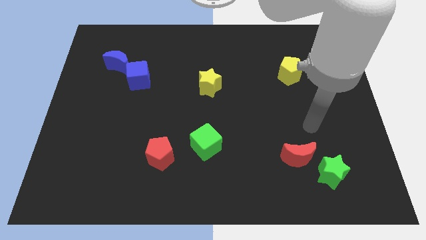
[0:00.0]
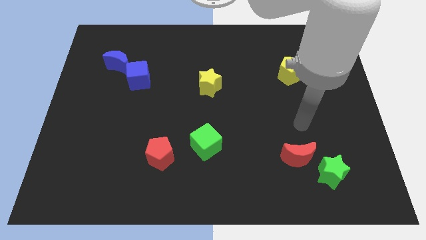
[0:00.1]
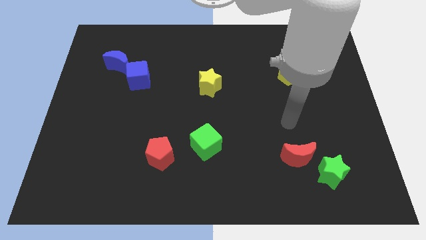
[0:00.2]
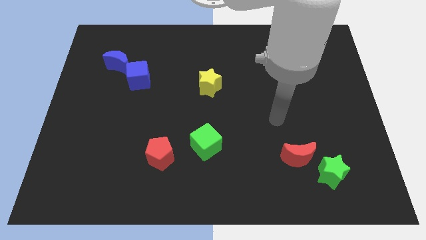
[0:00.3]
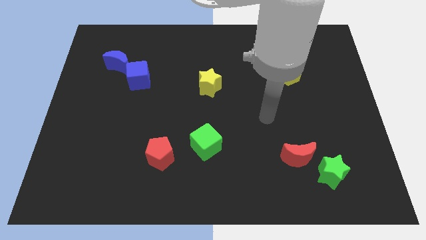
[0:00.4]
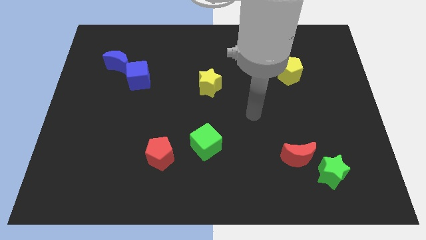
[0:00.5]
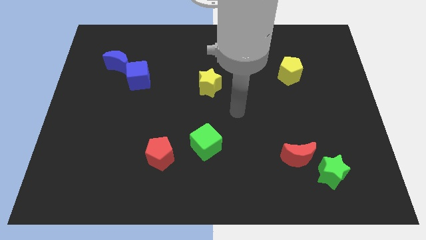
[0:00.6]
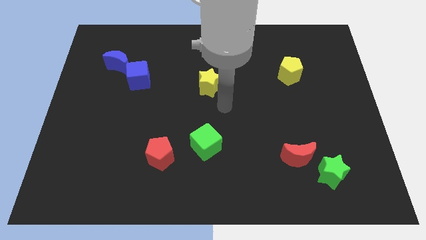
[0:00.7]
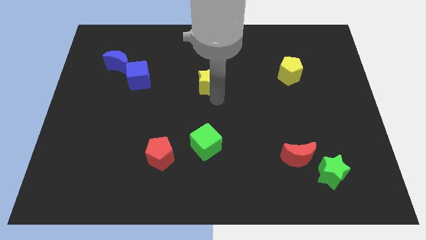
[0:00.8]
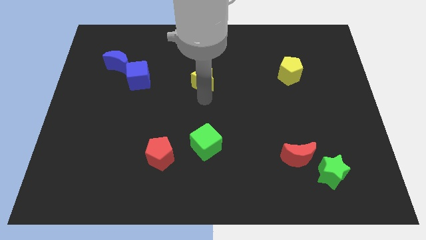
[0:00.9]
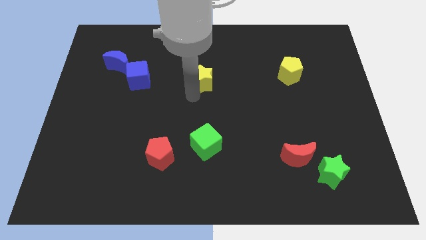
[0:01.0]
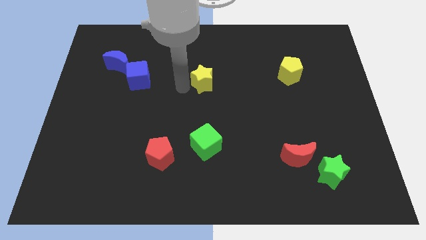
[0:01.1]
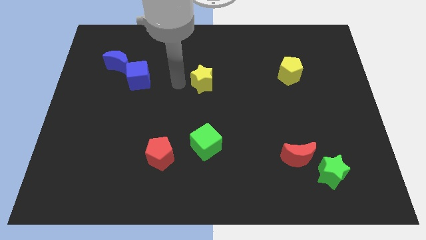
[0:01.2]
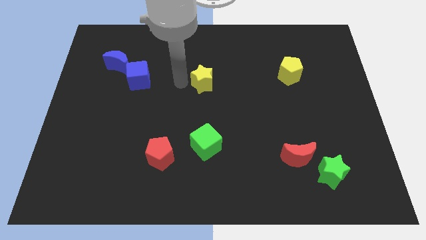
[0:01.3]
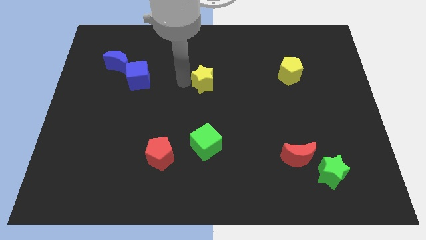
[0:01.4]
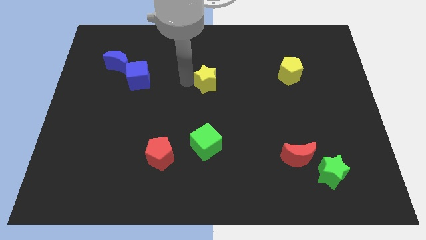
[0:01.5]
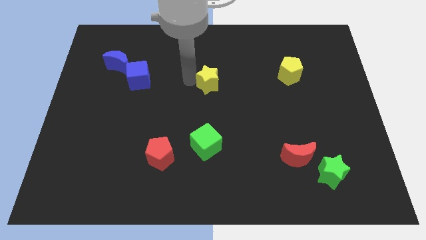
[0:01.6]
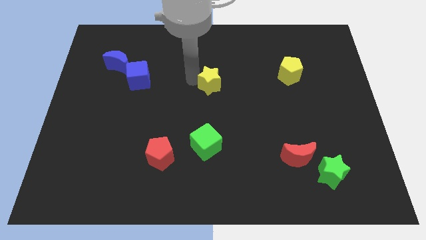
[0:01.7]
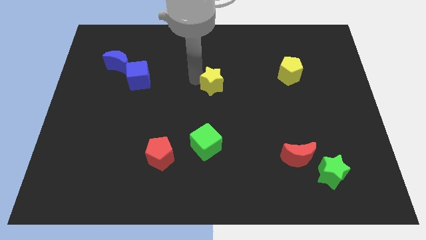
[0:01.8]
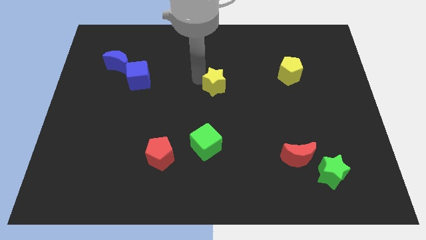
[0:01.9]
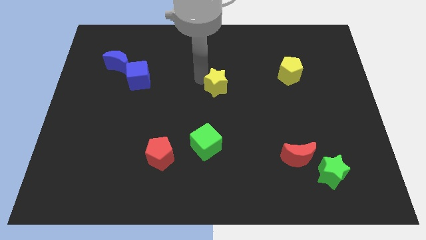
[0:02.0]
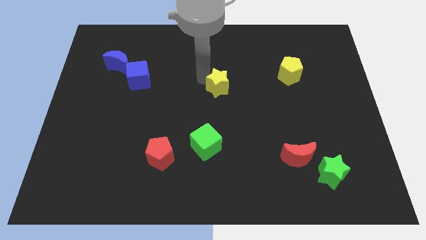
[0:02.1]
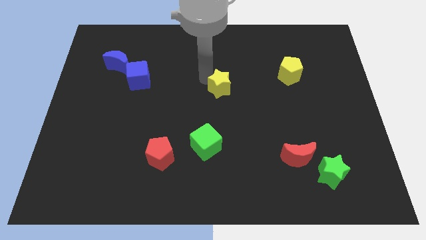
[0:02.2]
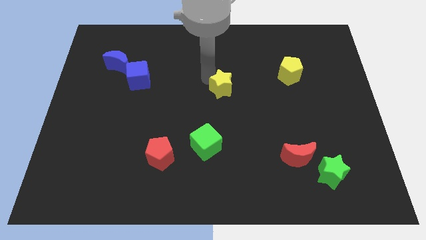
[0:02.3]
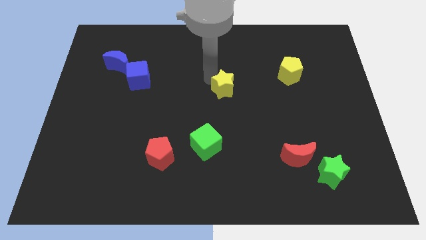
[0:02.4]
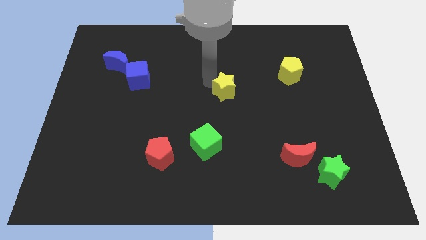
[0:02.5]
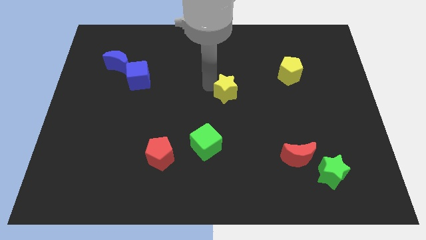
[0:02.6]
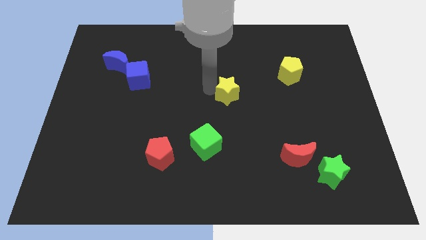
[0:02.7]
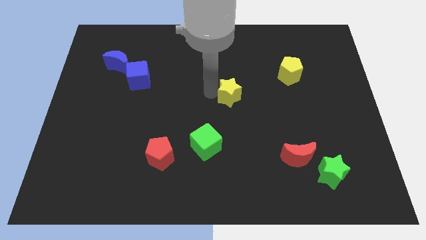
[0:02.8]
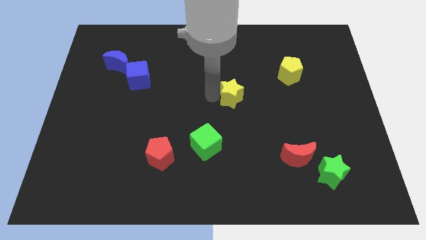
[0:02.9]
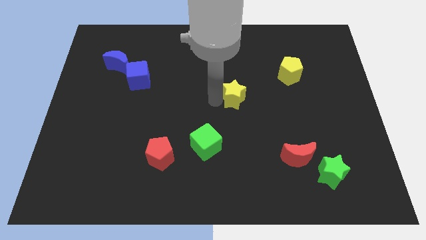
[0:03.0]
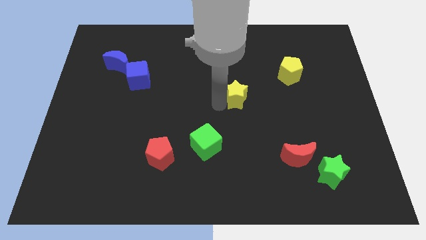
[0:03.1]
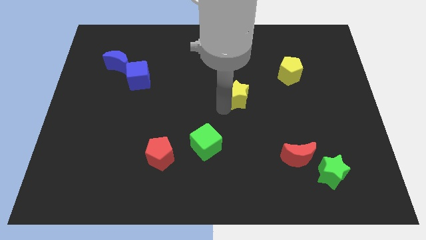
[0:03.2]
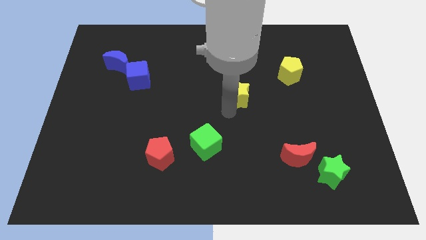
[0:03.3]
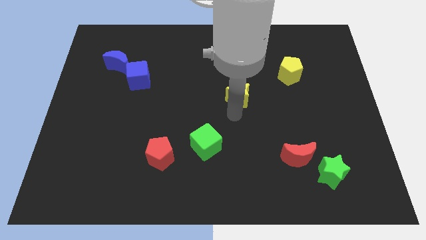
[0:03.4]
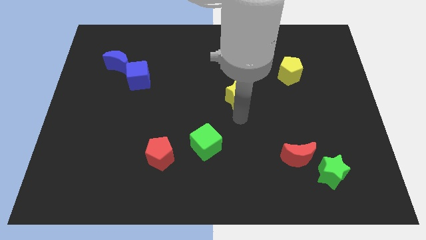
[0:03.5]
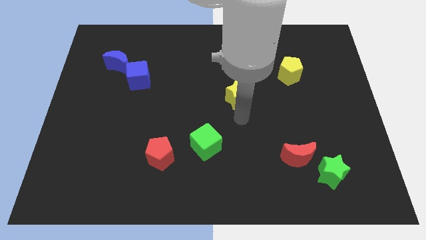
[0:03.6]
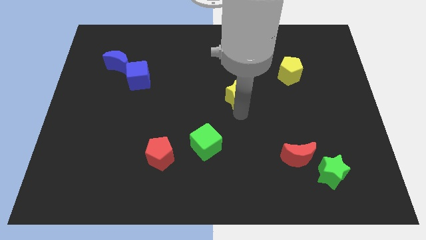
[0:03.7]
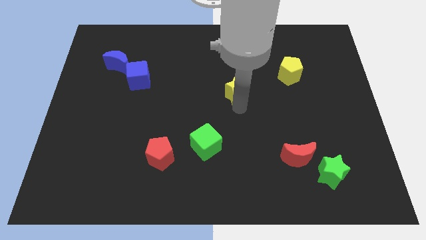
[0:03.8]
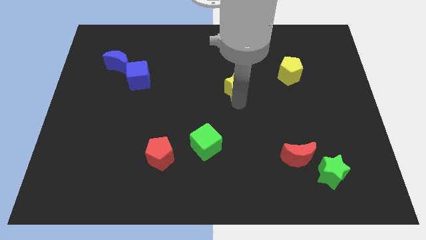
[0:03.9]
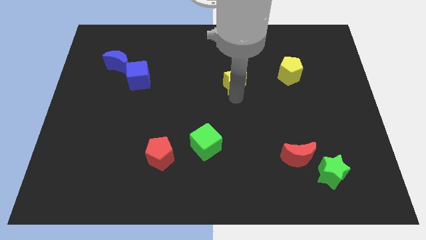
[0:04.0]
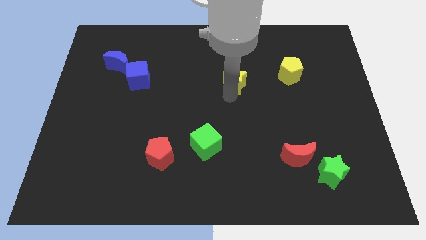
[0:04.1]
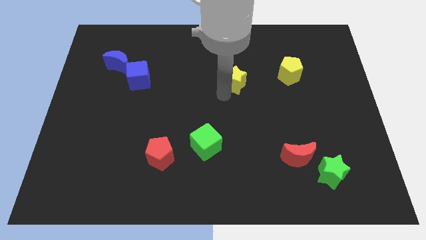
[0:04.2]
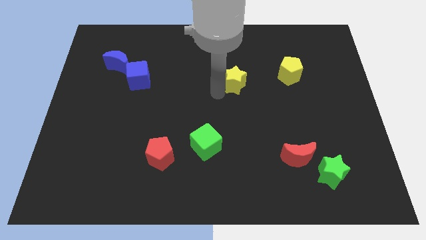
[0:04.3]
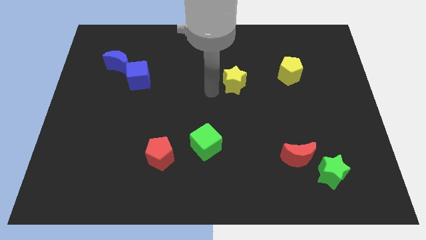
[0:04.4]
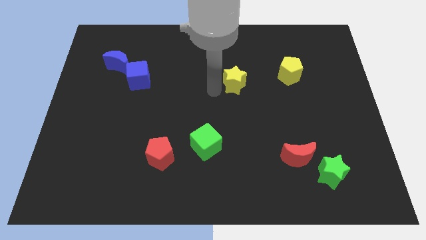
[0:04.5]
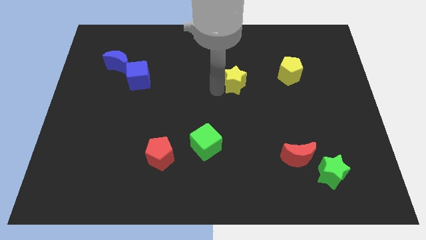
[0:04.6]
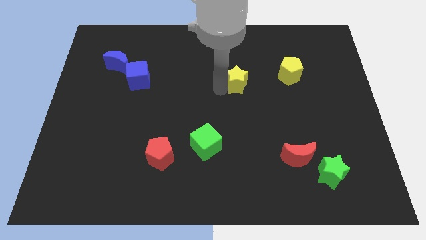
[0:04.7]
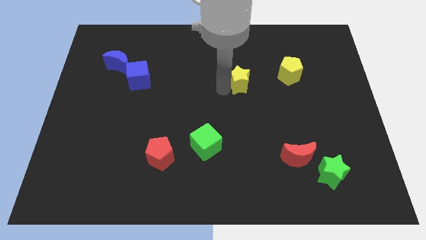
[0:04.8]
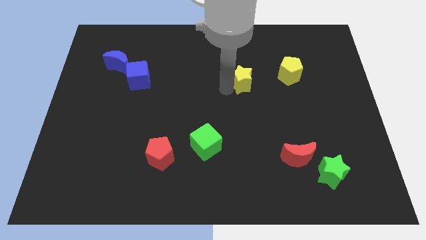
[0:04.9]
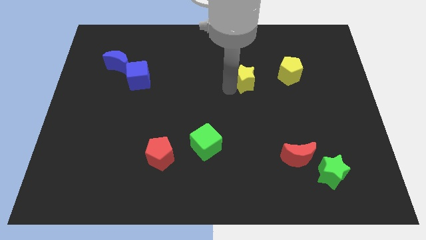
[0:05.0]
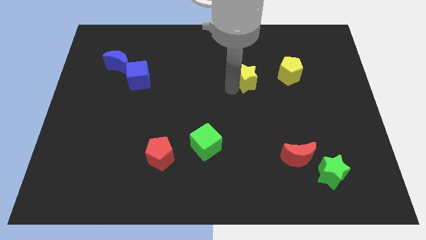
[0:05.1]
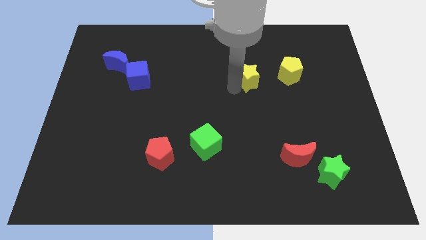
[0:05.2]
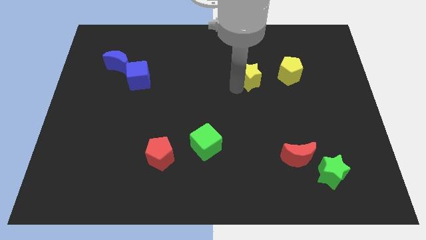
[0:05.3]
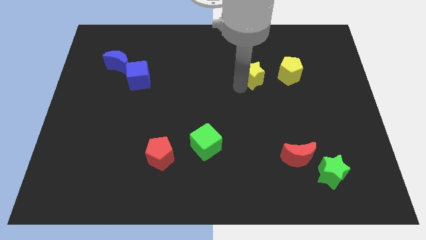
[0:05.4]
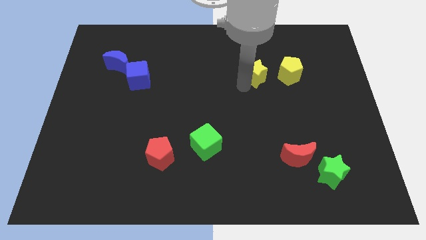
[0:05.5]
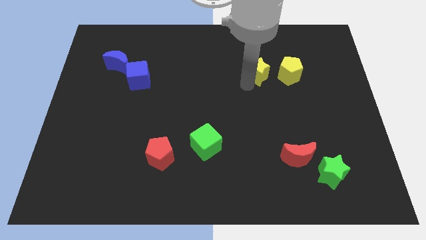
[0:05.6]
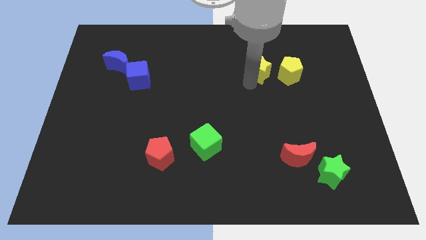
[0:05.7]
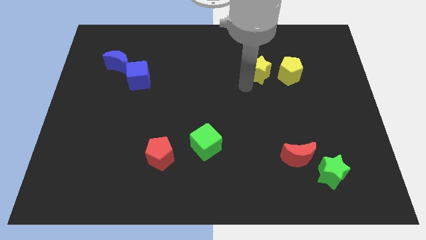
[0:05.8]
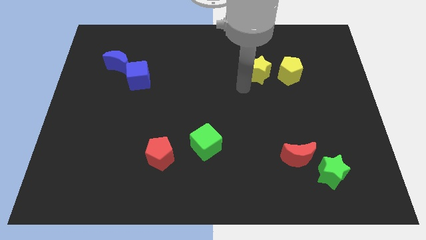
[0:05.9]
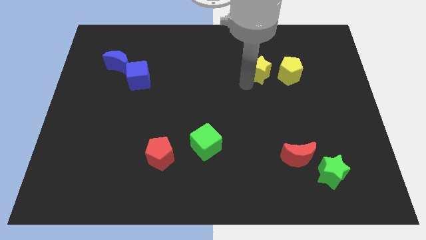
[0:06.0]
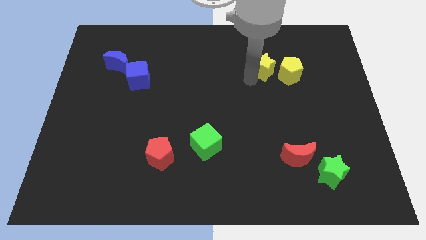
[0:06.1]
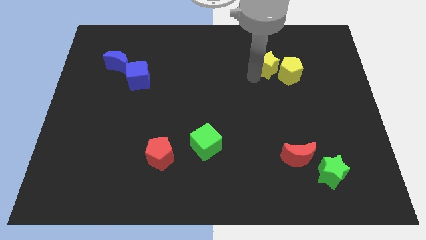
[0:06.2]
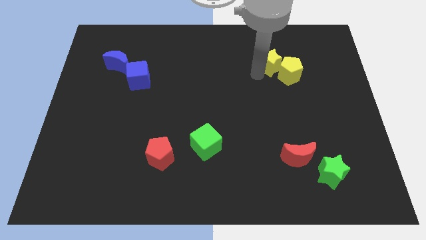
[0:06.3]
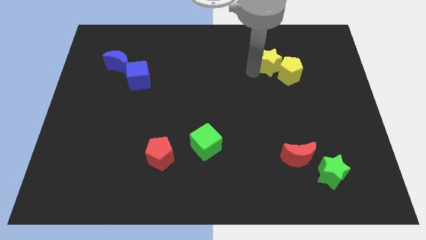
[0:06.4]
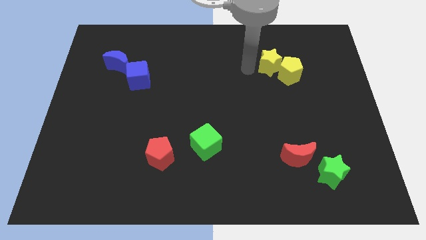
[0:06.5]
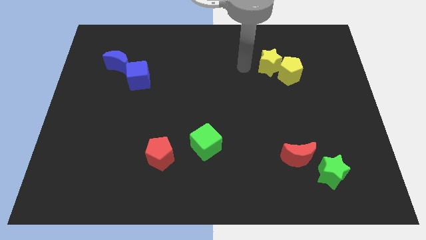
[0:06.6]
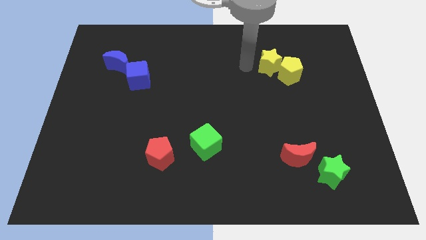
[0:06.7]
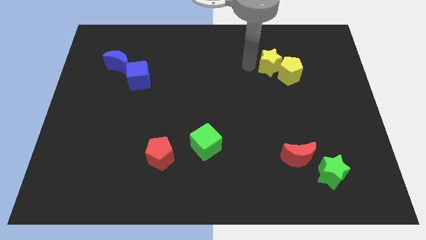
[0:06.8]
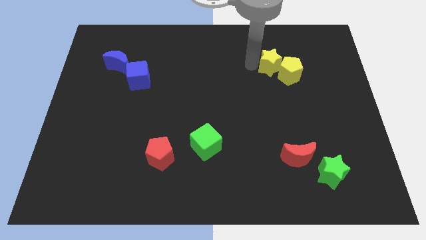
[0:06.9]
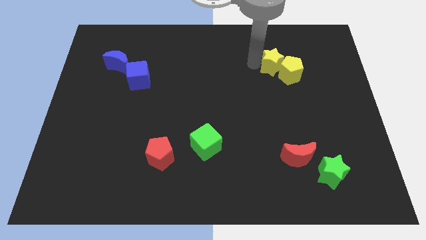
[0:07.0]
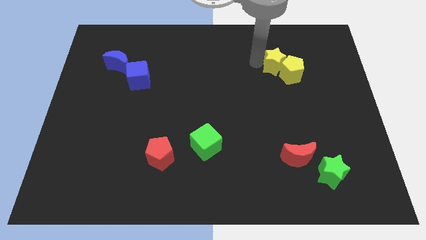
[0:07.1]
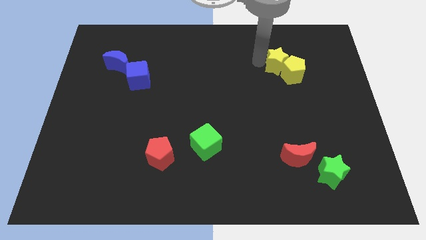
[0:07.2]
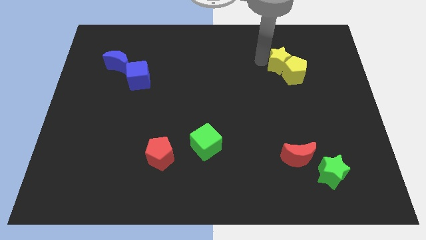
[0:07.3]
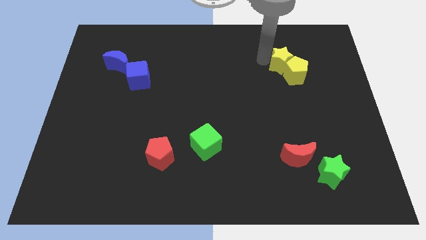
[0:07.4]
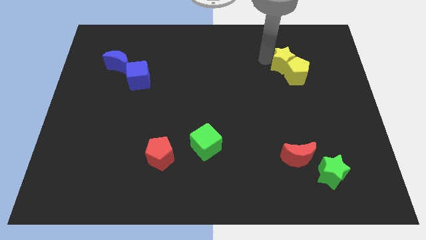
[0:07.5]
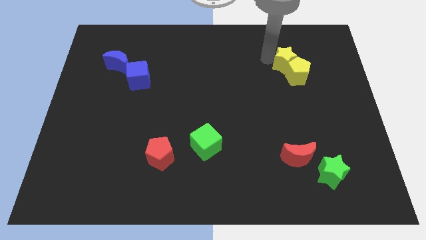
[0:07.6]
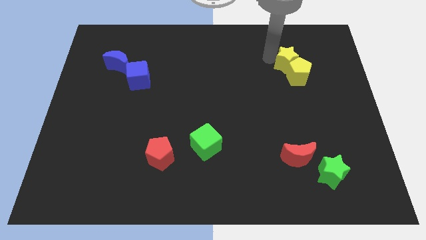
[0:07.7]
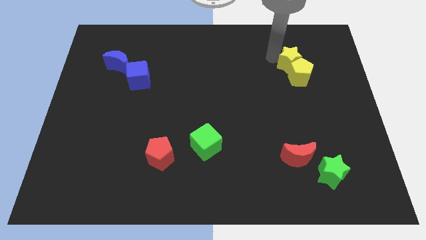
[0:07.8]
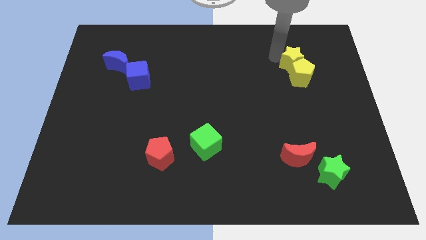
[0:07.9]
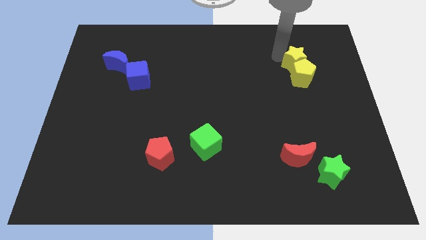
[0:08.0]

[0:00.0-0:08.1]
put the yellow star diagonally up and to the right of the yellow pentagon
